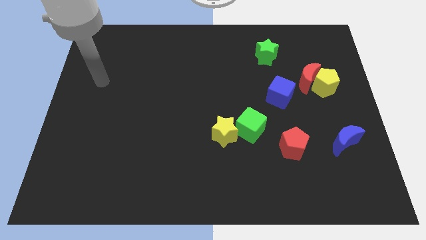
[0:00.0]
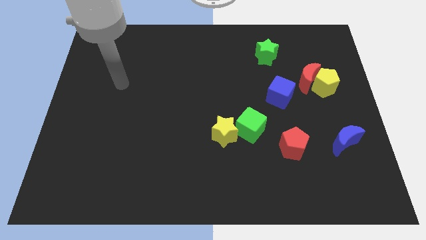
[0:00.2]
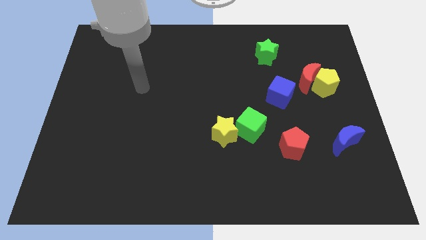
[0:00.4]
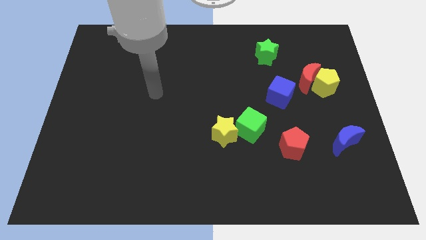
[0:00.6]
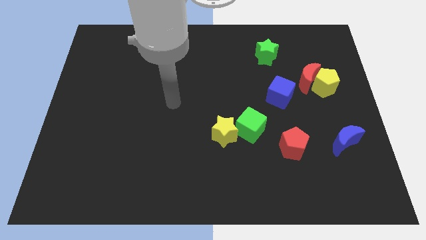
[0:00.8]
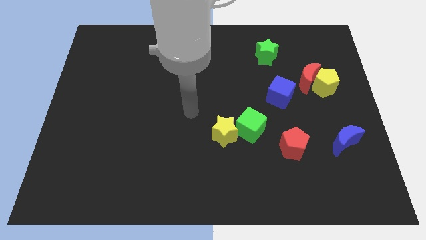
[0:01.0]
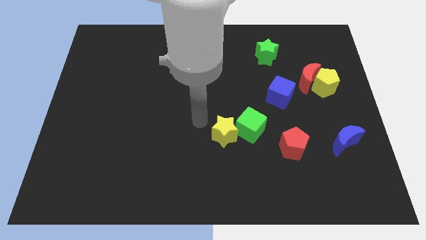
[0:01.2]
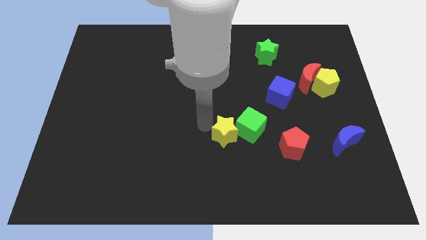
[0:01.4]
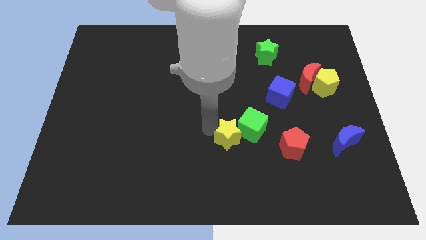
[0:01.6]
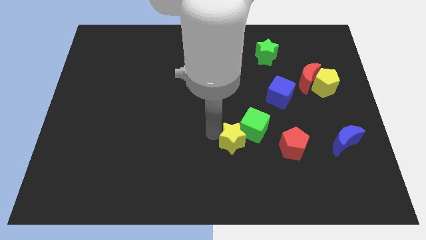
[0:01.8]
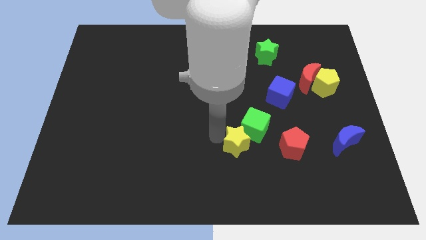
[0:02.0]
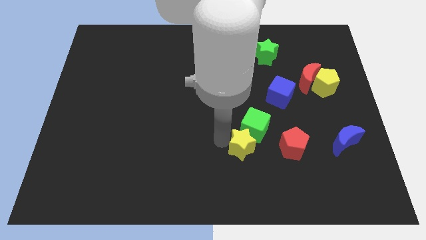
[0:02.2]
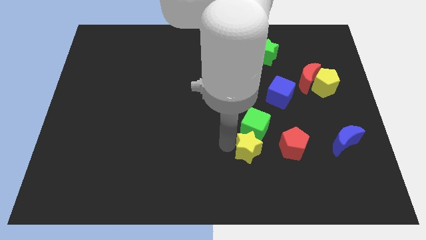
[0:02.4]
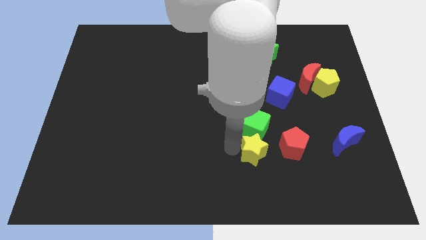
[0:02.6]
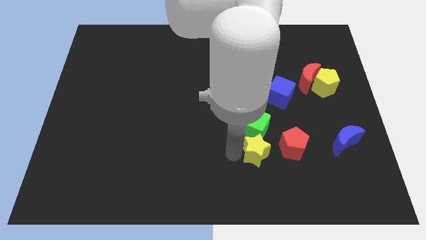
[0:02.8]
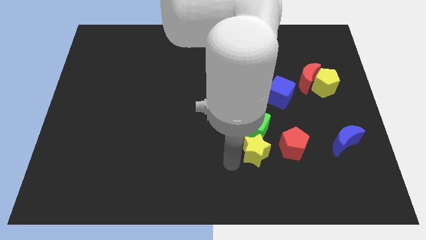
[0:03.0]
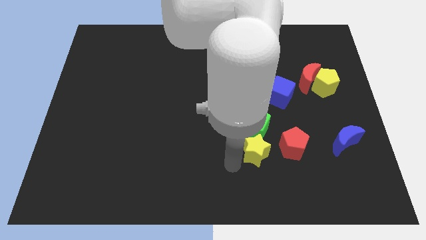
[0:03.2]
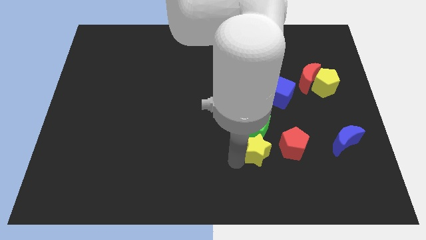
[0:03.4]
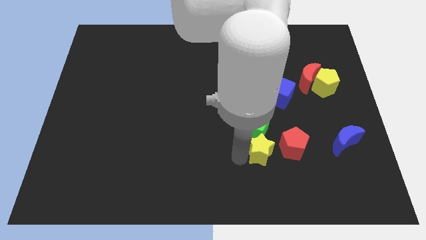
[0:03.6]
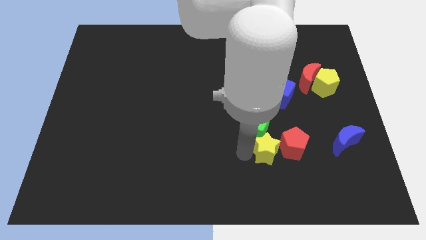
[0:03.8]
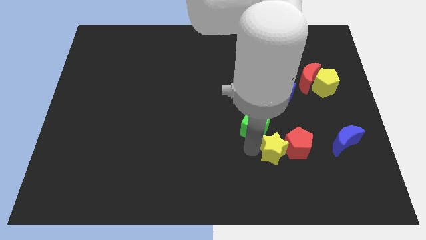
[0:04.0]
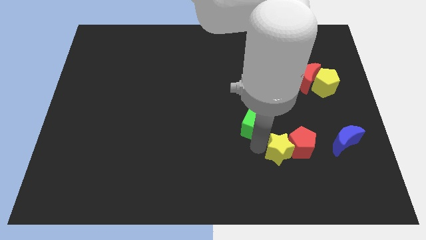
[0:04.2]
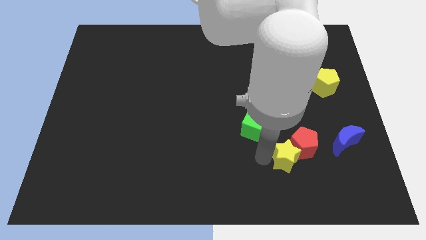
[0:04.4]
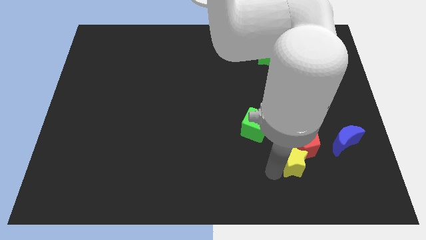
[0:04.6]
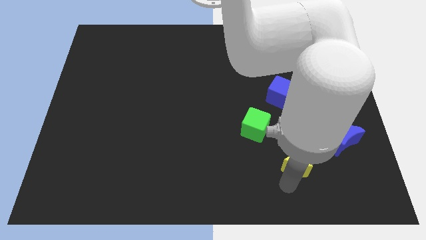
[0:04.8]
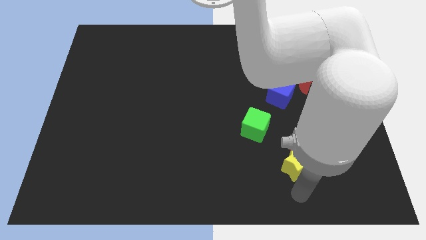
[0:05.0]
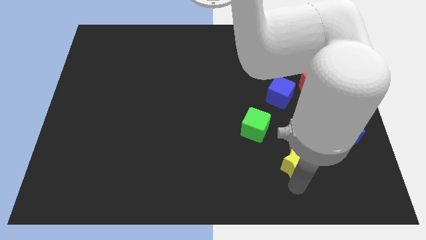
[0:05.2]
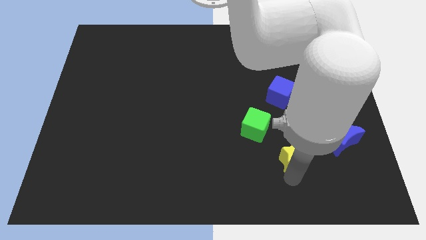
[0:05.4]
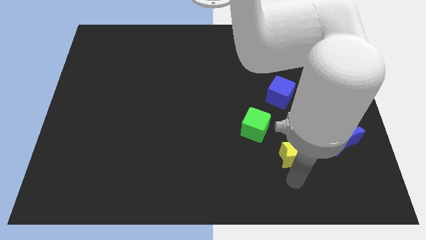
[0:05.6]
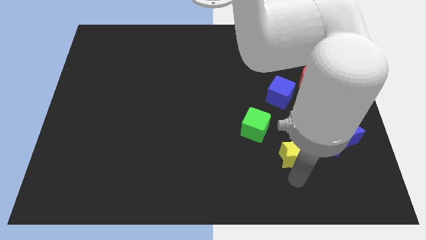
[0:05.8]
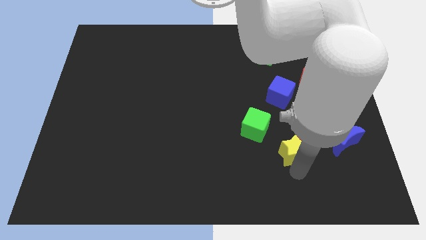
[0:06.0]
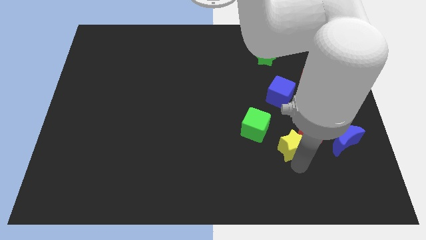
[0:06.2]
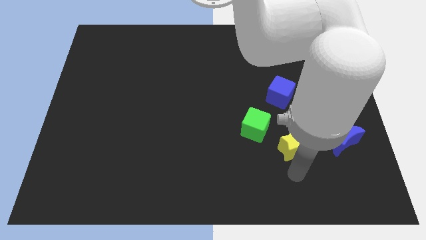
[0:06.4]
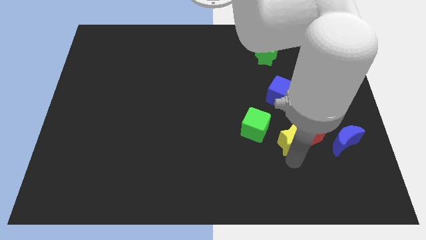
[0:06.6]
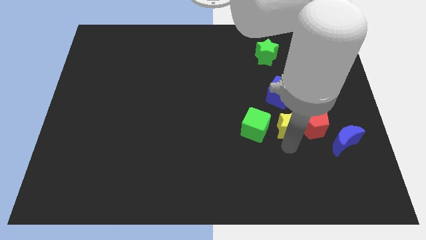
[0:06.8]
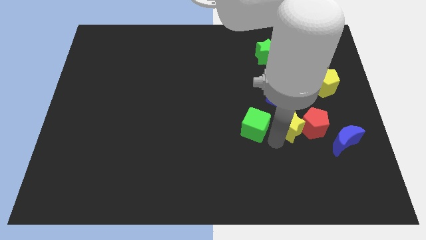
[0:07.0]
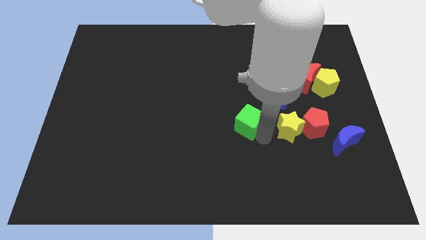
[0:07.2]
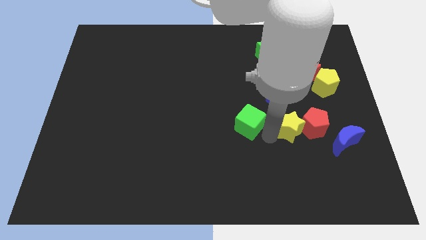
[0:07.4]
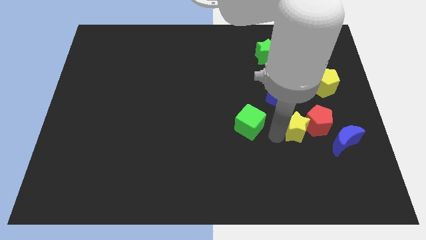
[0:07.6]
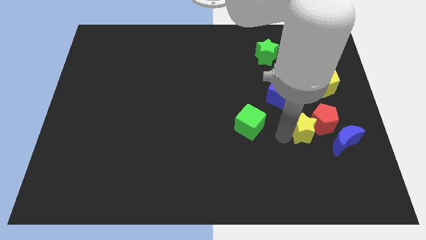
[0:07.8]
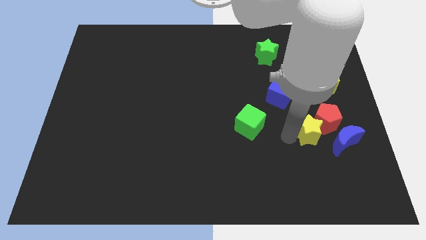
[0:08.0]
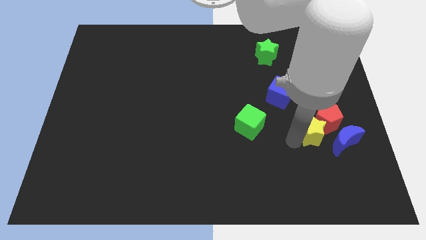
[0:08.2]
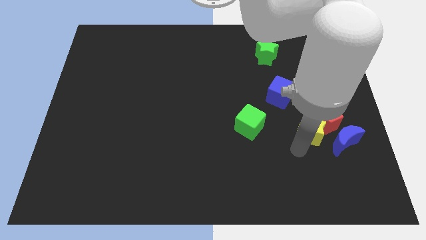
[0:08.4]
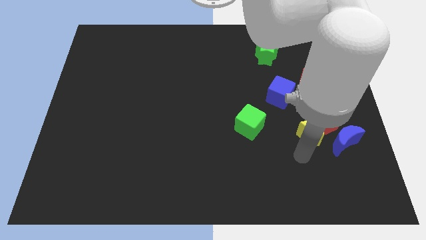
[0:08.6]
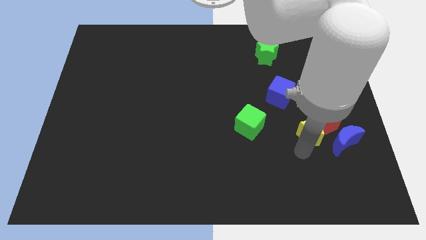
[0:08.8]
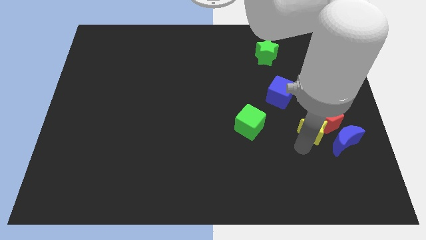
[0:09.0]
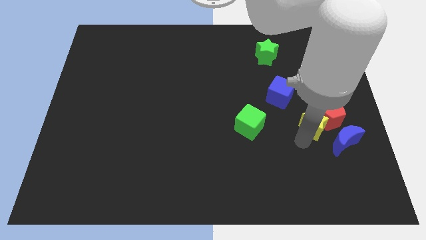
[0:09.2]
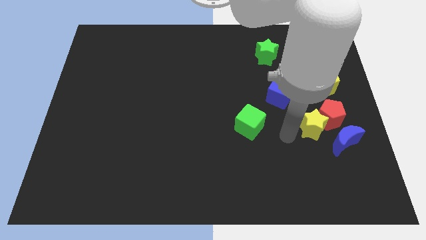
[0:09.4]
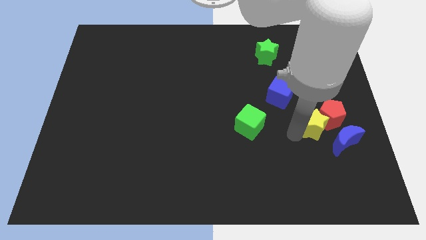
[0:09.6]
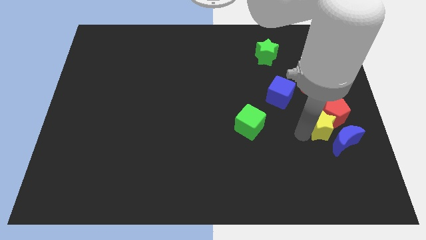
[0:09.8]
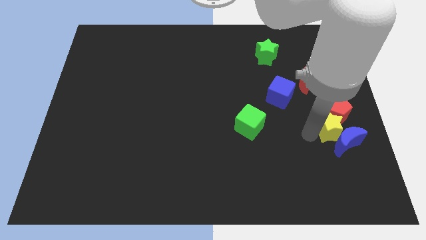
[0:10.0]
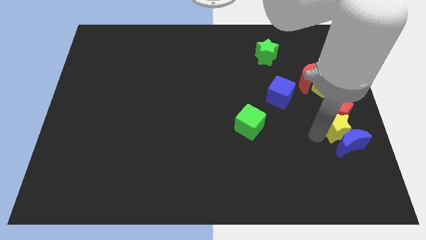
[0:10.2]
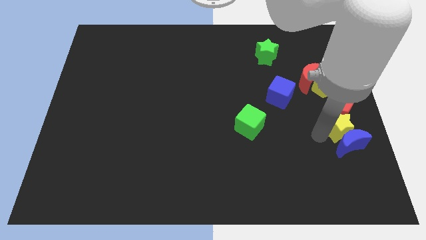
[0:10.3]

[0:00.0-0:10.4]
slide the yellow star to the right side

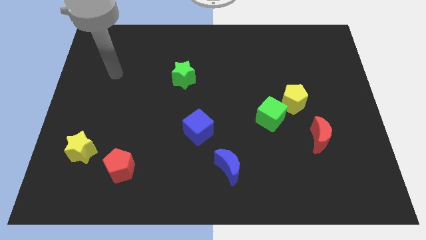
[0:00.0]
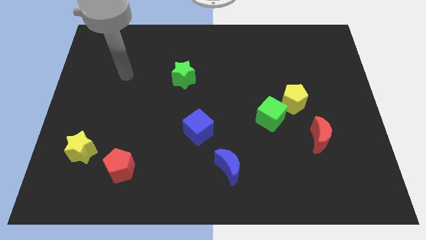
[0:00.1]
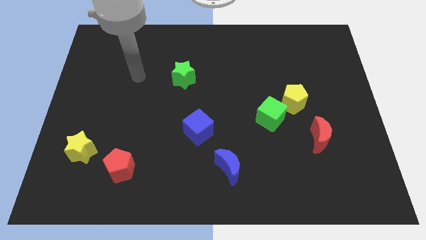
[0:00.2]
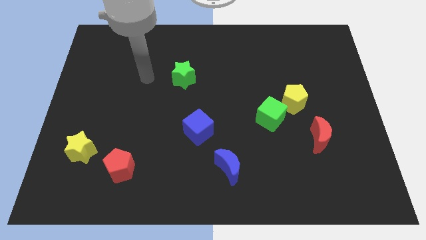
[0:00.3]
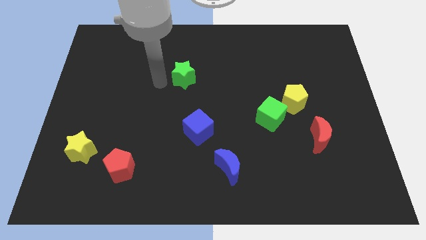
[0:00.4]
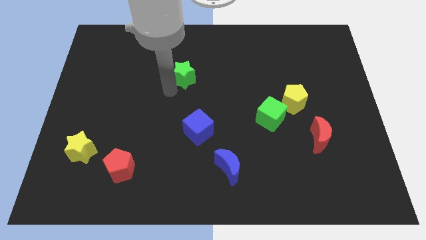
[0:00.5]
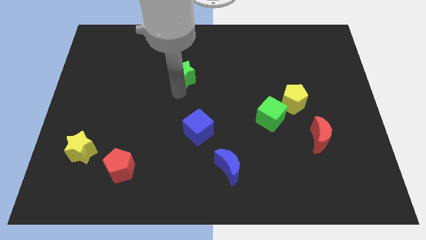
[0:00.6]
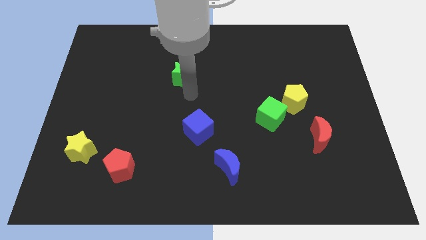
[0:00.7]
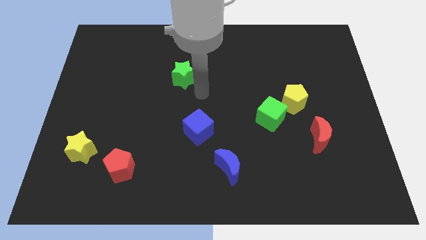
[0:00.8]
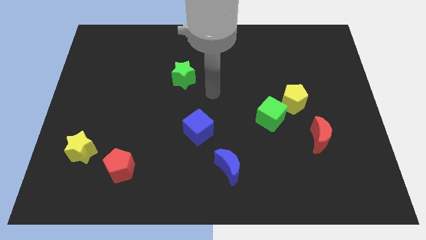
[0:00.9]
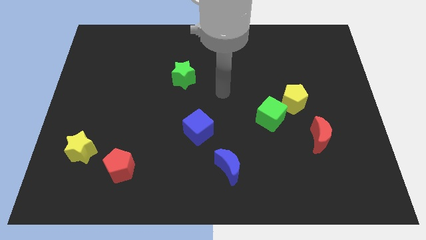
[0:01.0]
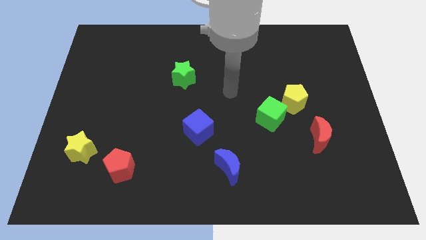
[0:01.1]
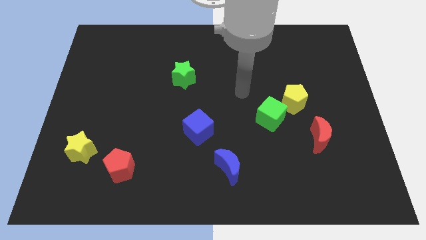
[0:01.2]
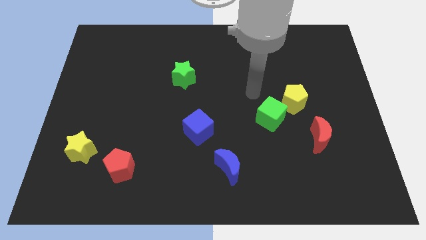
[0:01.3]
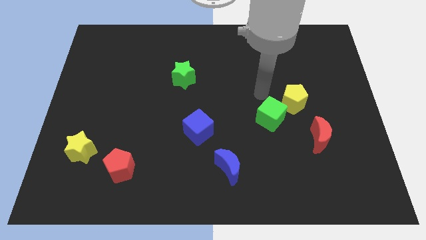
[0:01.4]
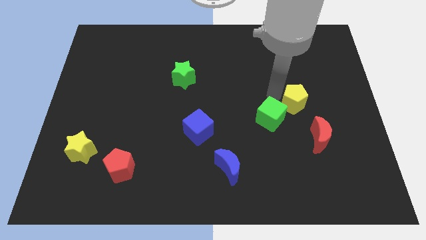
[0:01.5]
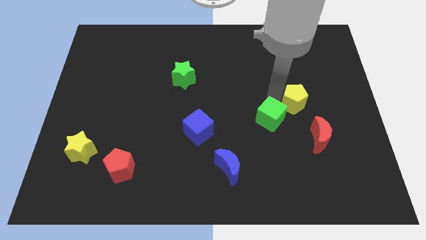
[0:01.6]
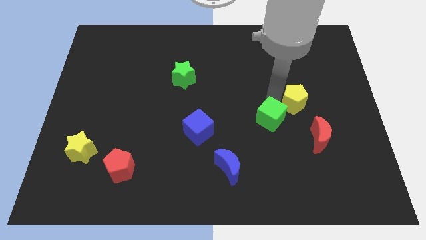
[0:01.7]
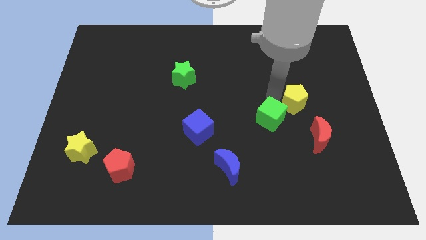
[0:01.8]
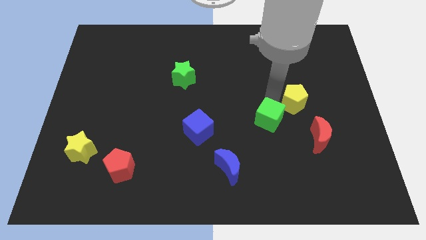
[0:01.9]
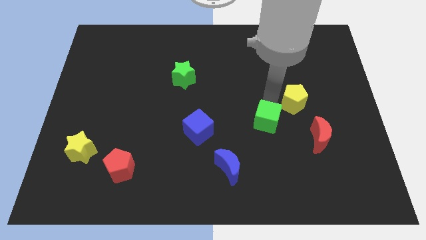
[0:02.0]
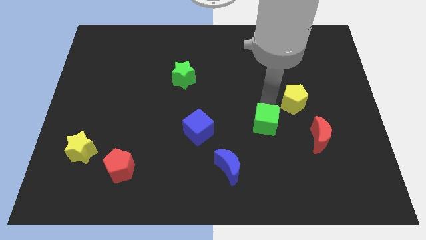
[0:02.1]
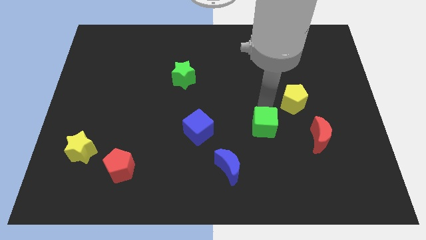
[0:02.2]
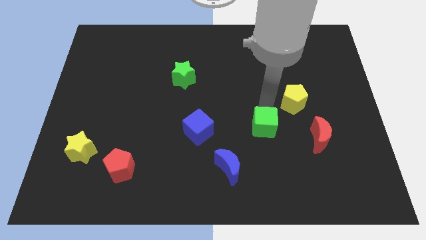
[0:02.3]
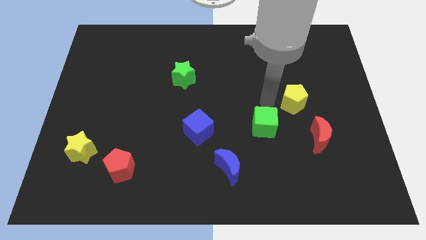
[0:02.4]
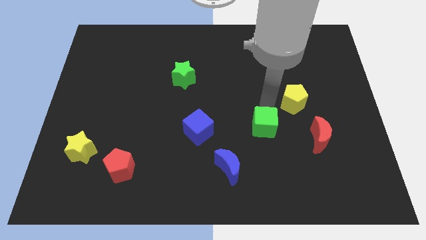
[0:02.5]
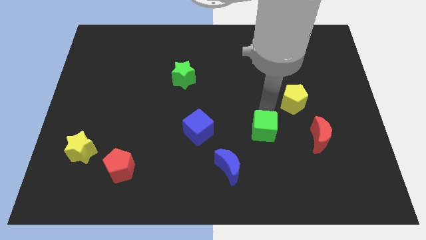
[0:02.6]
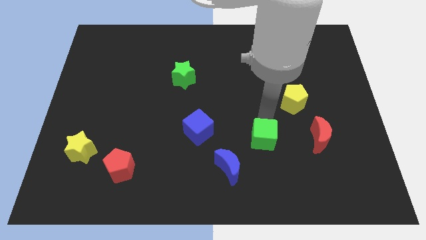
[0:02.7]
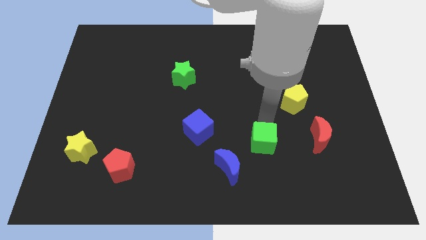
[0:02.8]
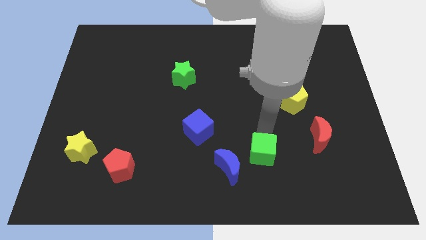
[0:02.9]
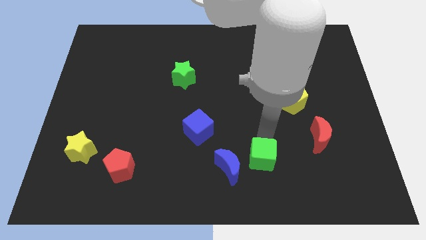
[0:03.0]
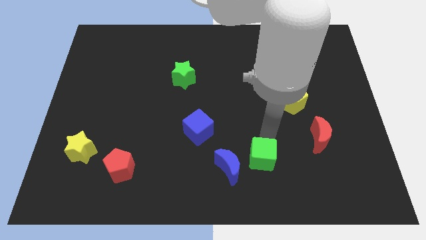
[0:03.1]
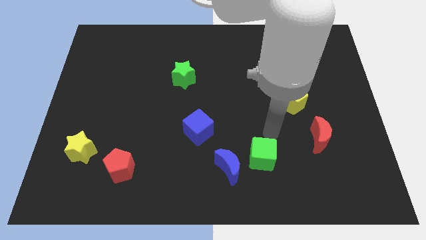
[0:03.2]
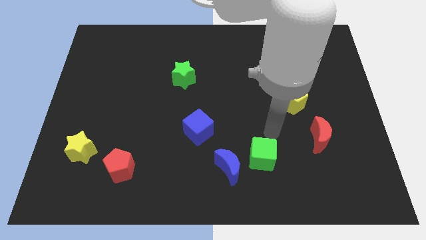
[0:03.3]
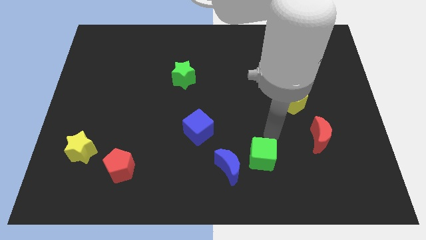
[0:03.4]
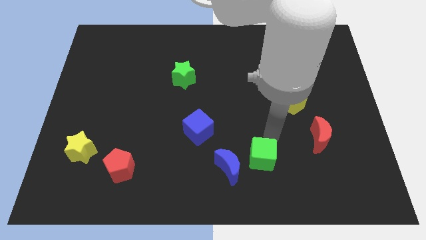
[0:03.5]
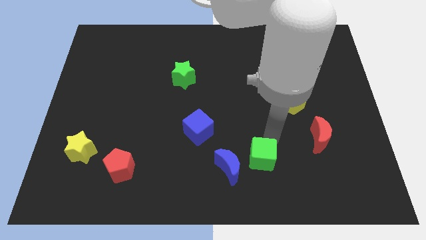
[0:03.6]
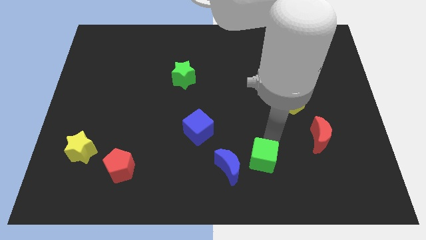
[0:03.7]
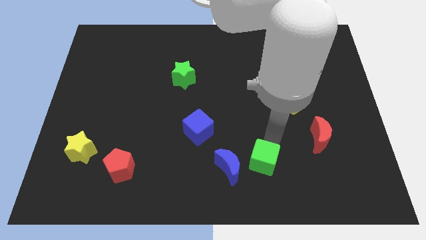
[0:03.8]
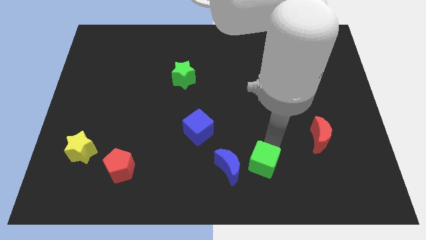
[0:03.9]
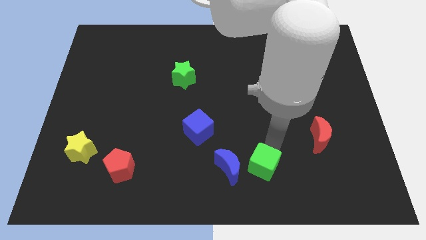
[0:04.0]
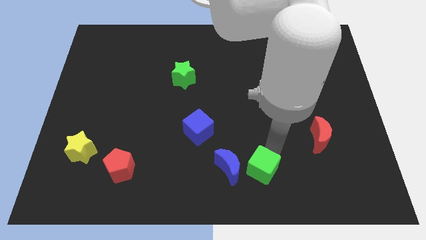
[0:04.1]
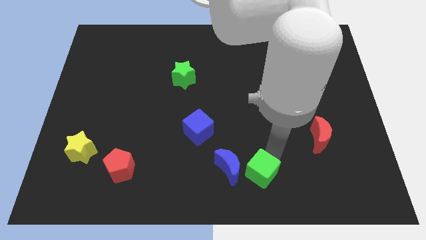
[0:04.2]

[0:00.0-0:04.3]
move the green cube to the bottom
